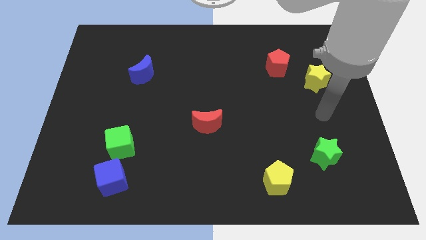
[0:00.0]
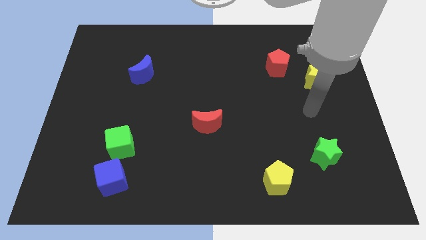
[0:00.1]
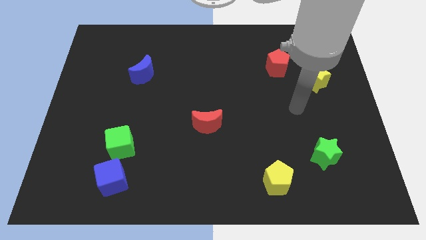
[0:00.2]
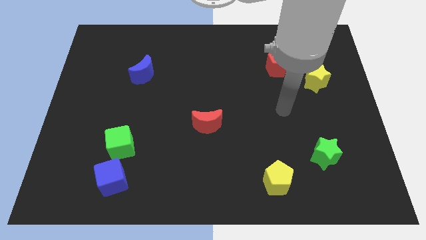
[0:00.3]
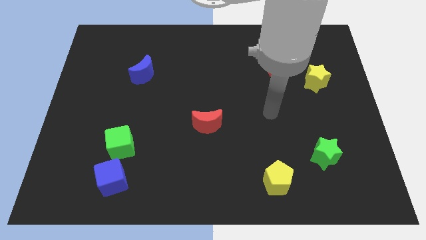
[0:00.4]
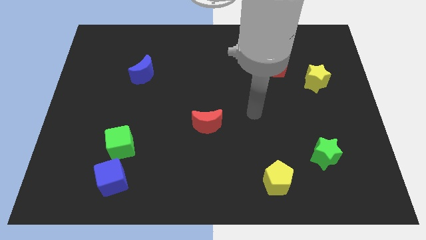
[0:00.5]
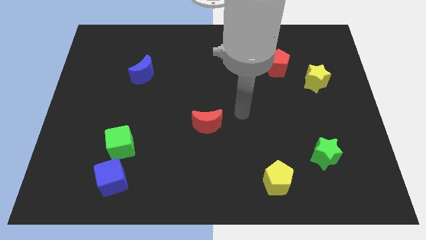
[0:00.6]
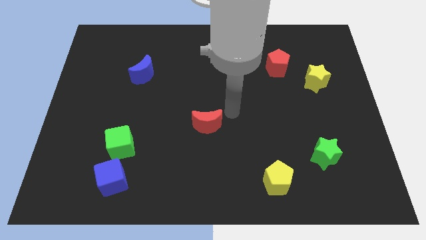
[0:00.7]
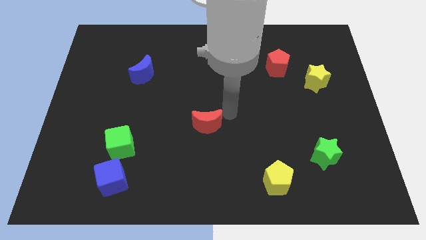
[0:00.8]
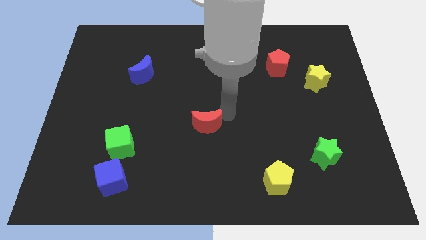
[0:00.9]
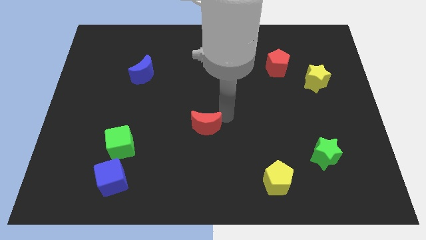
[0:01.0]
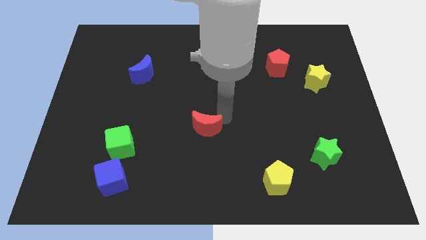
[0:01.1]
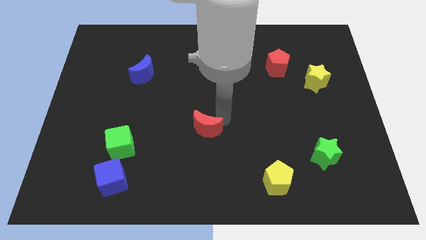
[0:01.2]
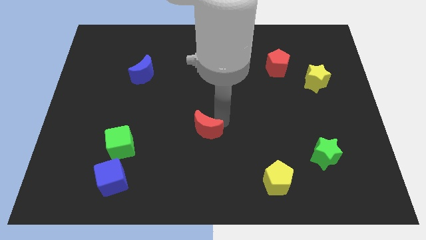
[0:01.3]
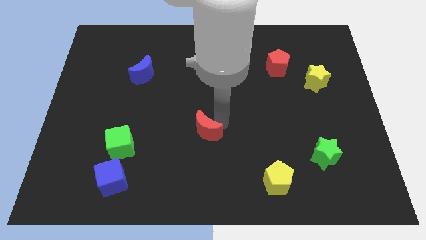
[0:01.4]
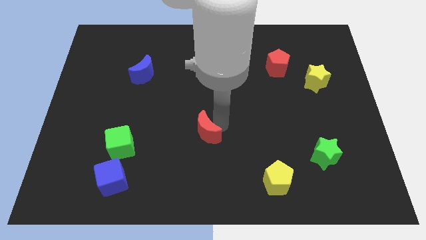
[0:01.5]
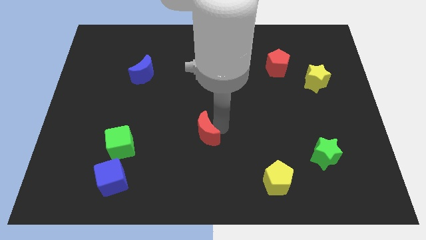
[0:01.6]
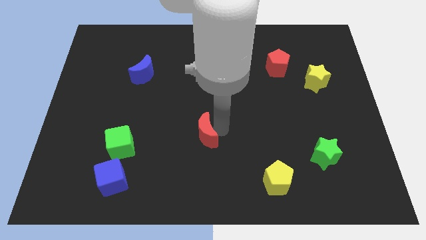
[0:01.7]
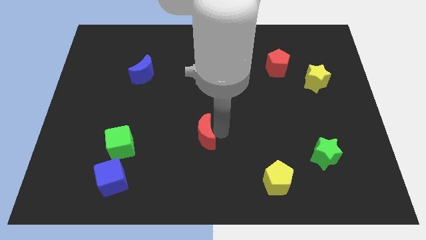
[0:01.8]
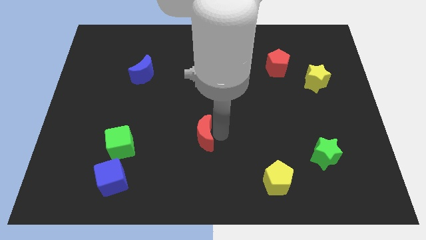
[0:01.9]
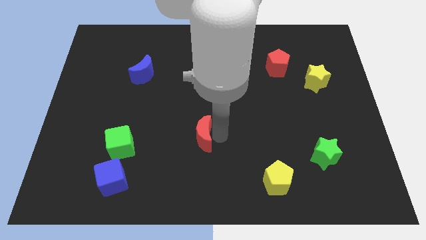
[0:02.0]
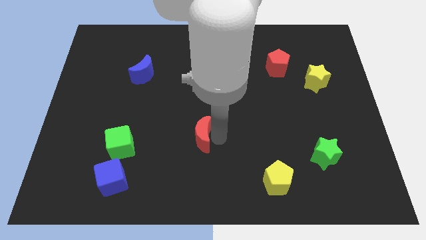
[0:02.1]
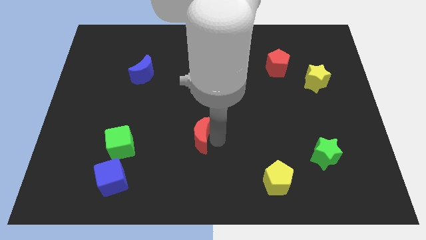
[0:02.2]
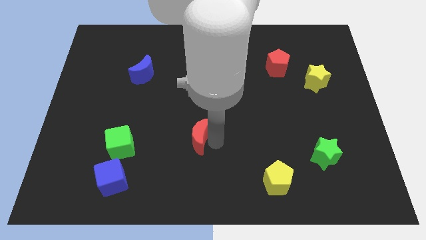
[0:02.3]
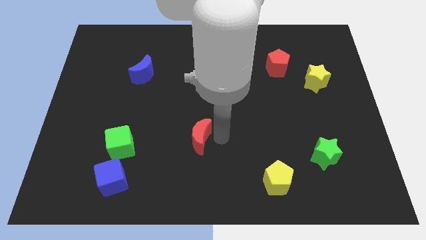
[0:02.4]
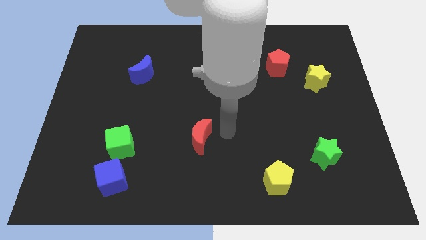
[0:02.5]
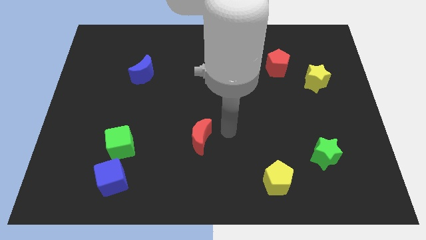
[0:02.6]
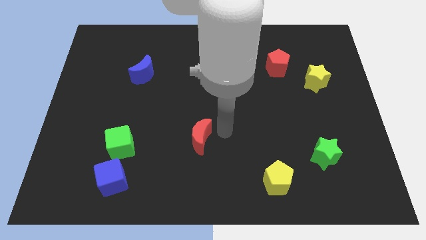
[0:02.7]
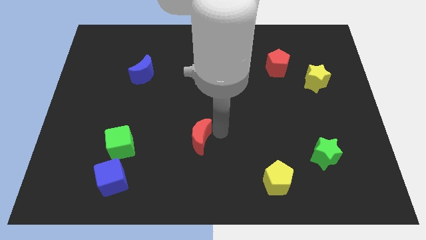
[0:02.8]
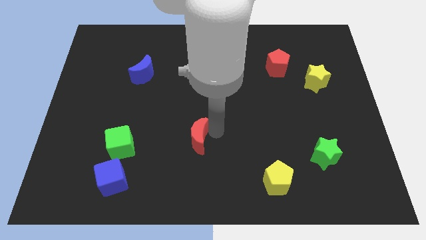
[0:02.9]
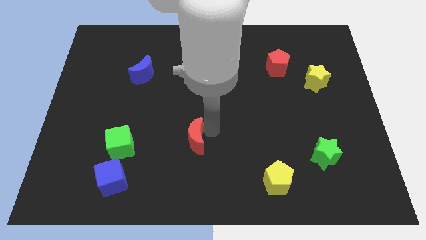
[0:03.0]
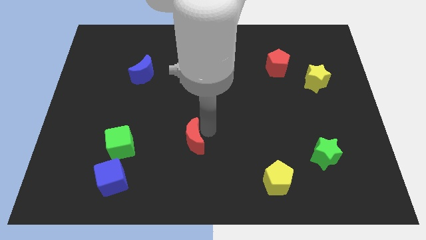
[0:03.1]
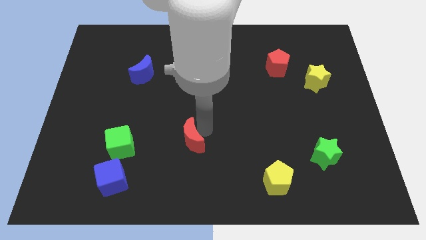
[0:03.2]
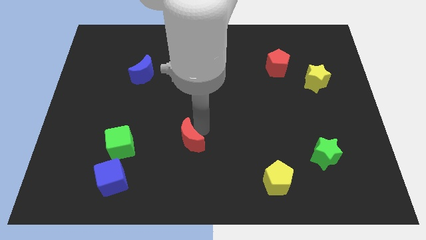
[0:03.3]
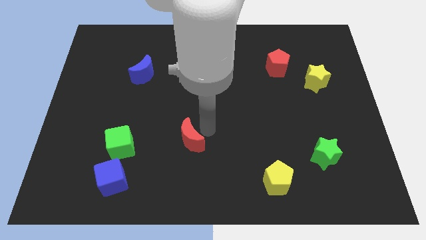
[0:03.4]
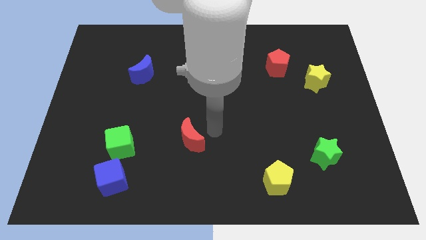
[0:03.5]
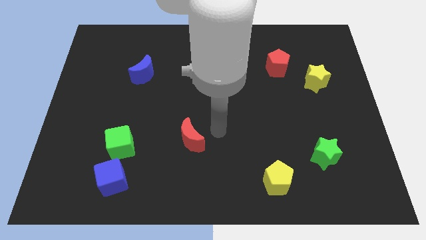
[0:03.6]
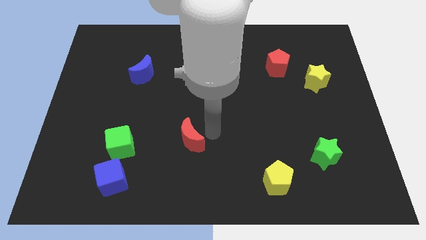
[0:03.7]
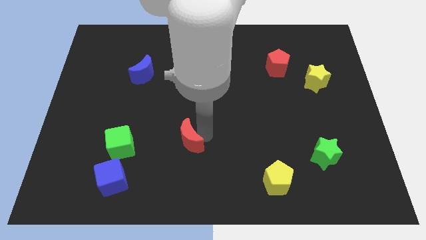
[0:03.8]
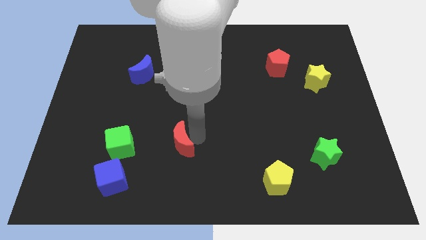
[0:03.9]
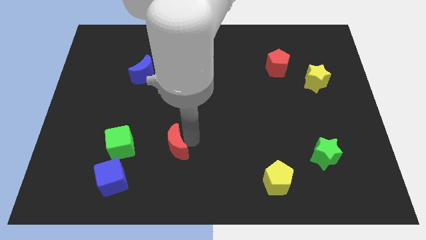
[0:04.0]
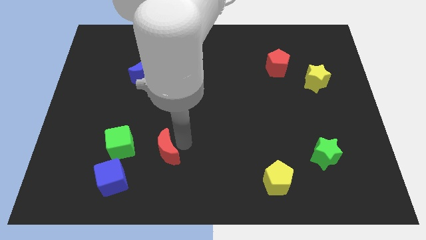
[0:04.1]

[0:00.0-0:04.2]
put the red moon diagonally up and to the right of the blue cube

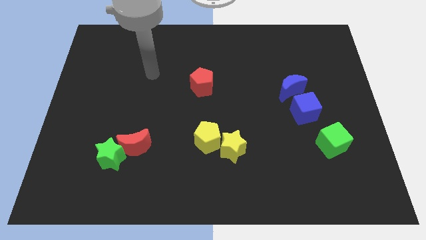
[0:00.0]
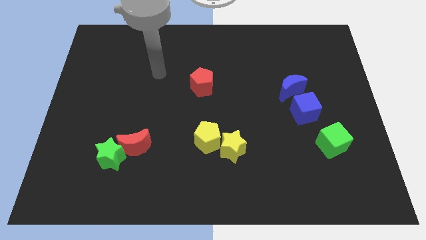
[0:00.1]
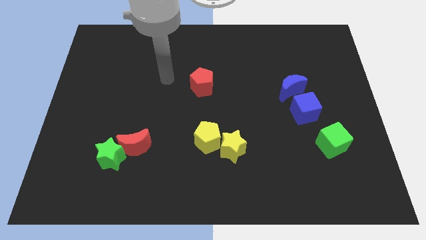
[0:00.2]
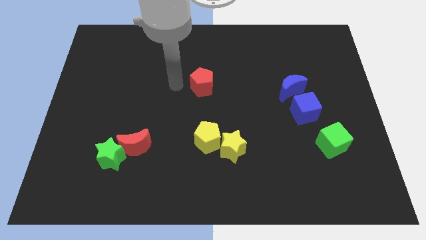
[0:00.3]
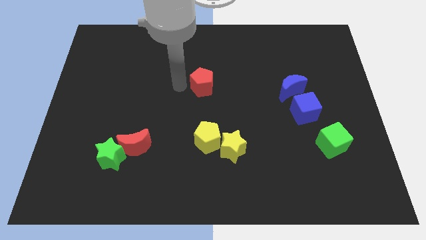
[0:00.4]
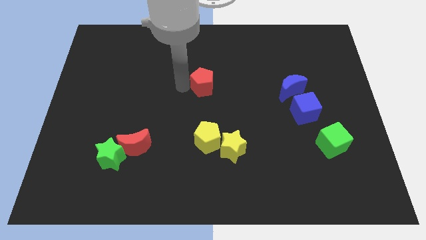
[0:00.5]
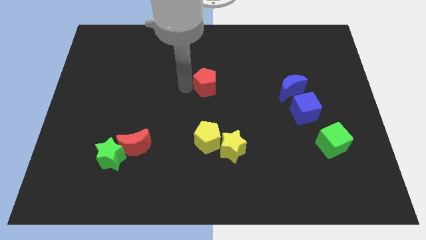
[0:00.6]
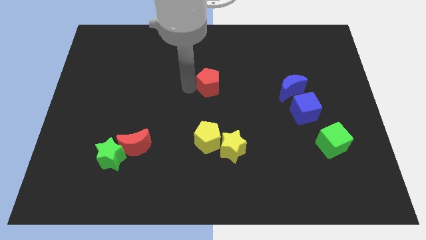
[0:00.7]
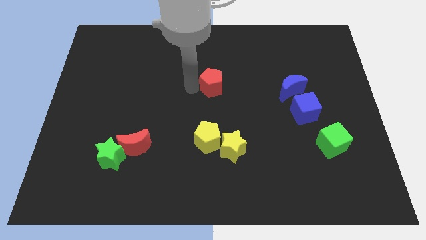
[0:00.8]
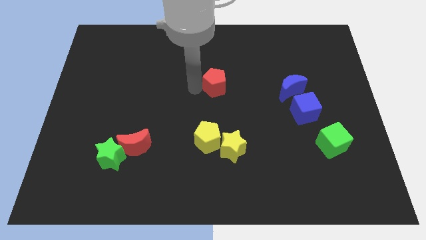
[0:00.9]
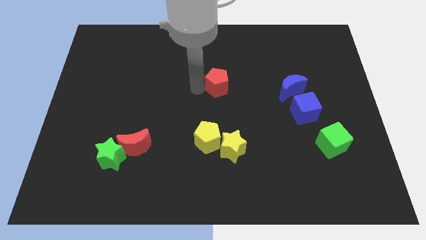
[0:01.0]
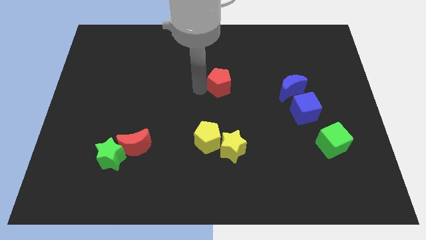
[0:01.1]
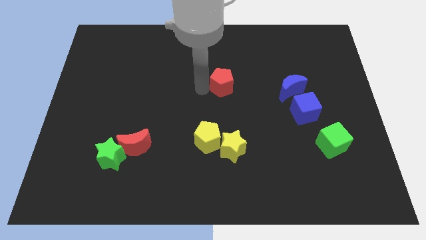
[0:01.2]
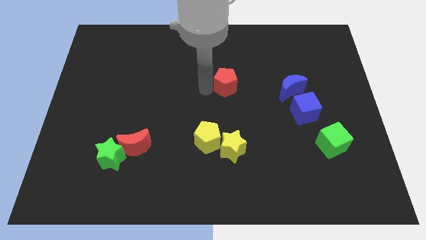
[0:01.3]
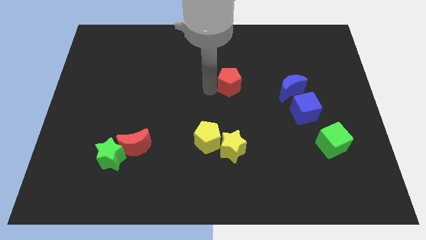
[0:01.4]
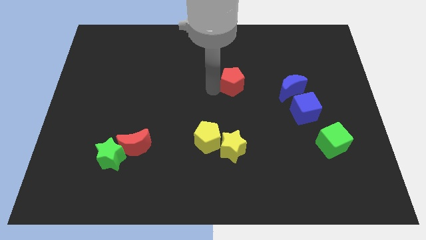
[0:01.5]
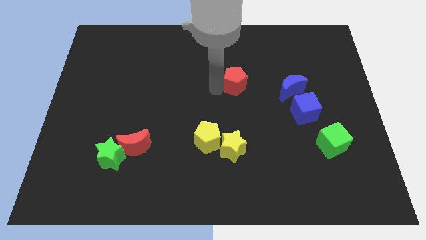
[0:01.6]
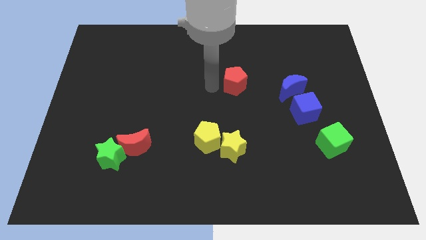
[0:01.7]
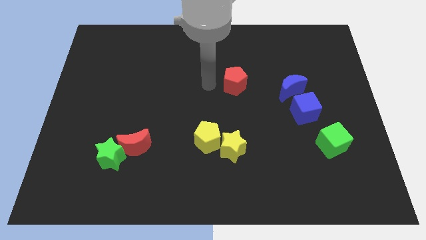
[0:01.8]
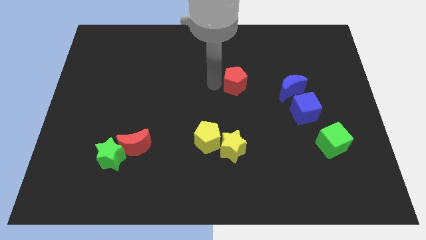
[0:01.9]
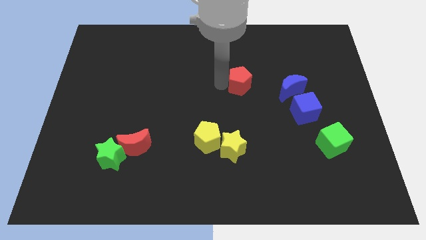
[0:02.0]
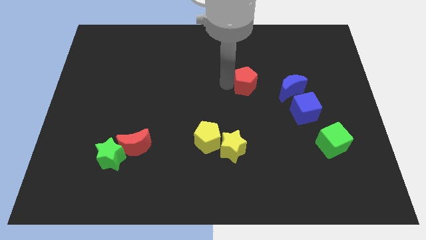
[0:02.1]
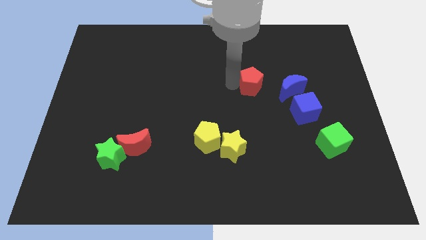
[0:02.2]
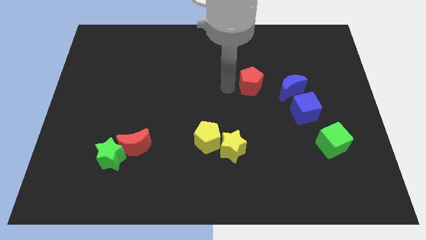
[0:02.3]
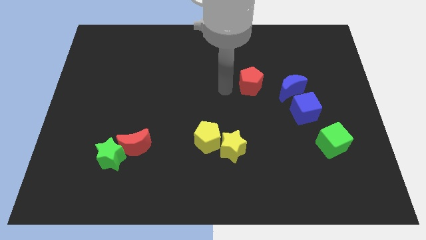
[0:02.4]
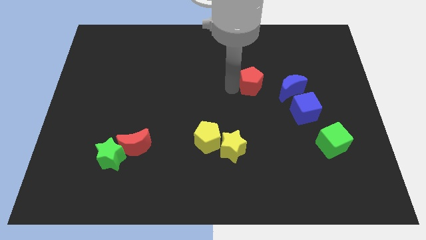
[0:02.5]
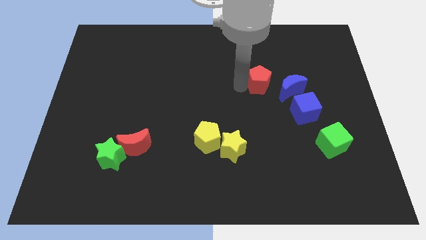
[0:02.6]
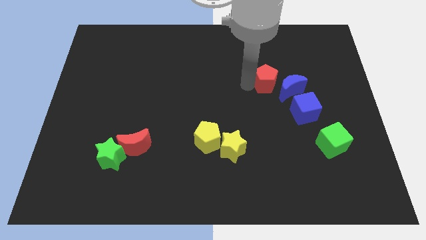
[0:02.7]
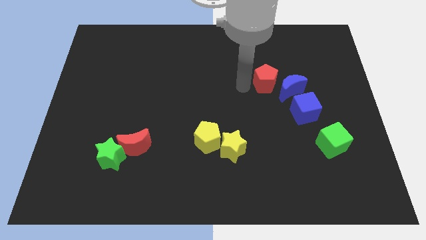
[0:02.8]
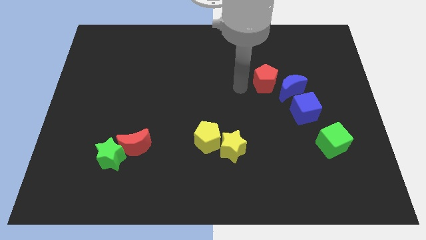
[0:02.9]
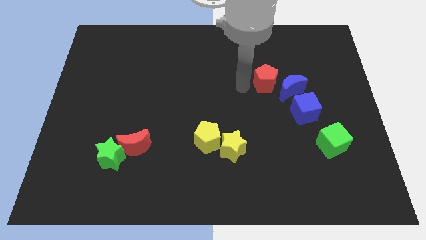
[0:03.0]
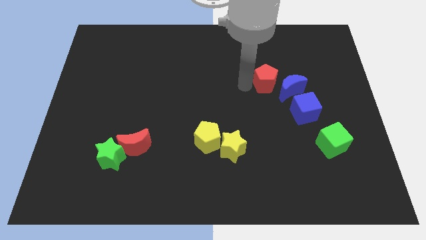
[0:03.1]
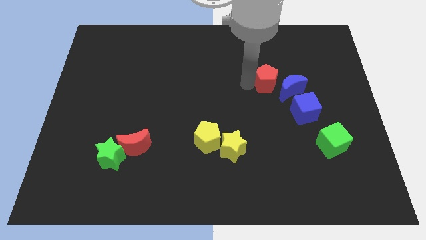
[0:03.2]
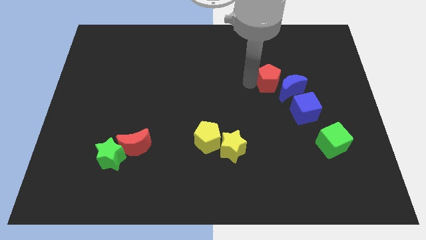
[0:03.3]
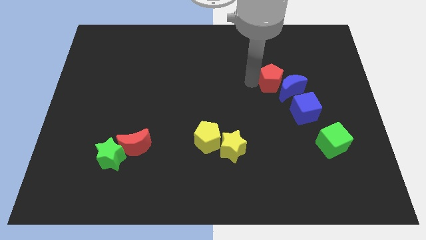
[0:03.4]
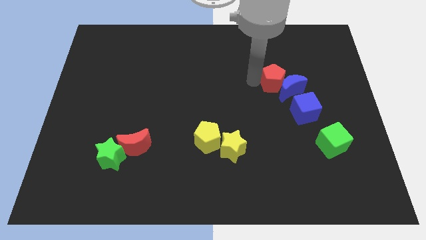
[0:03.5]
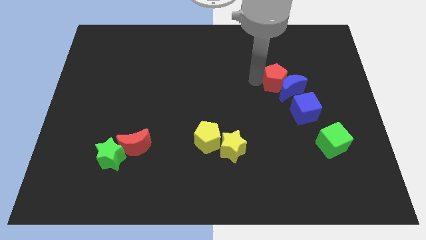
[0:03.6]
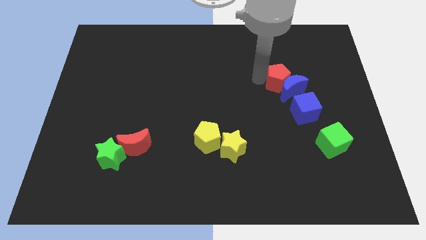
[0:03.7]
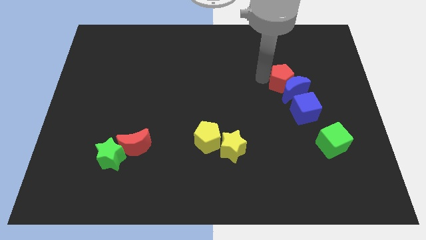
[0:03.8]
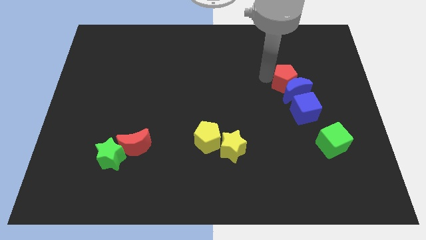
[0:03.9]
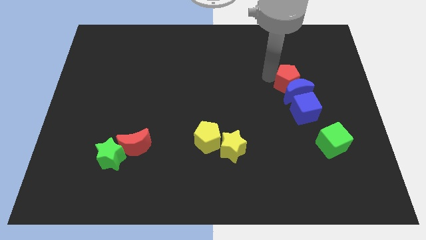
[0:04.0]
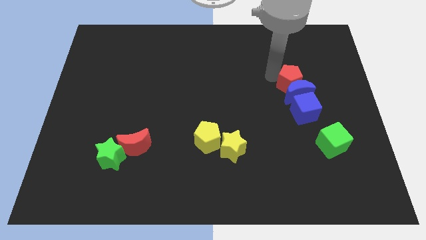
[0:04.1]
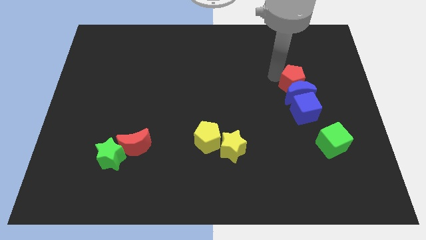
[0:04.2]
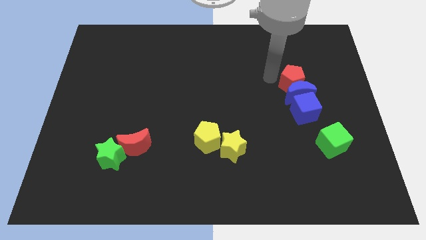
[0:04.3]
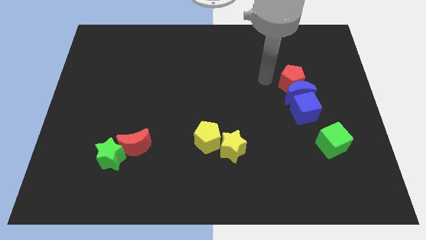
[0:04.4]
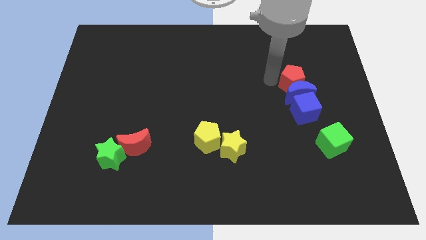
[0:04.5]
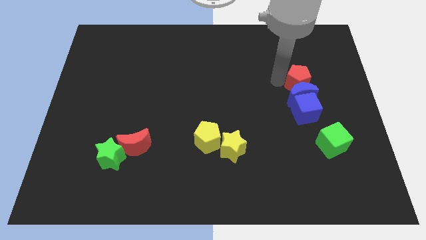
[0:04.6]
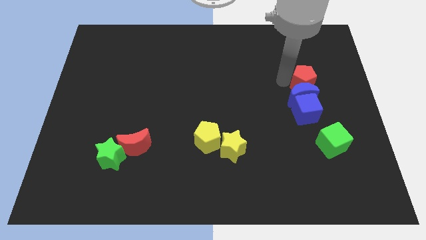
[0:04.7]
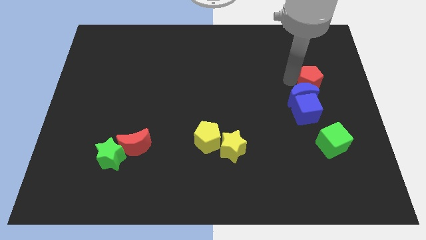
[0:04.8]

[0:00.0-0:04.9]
slide the red pentagon to the top right side of the blue cube
